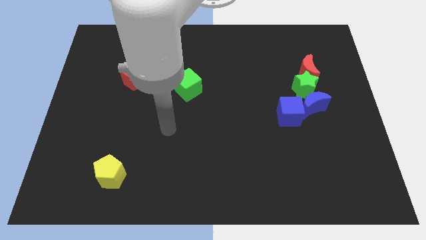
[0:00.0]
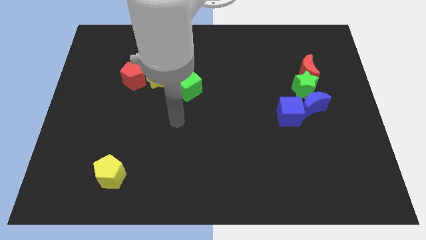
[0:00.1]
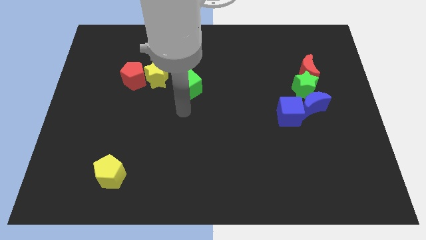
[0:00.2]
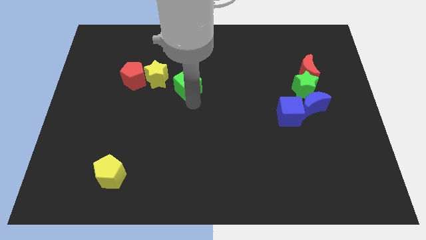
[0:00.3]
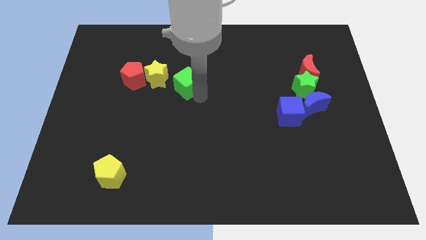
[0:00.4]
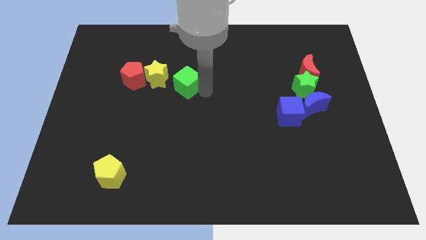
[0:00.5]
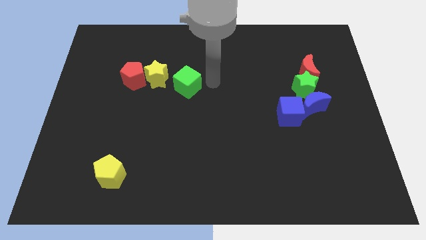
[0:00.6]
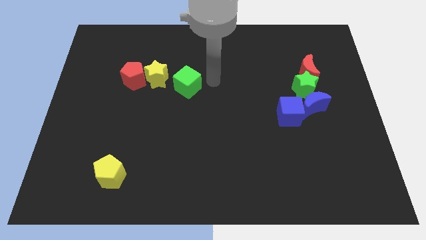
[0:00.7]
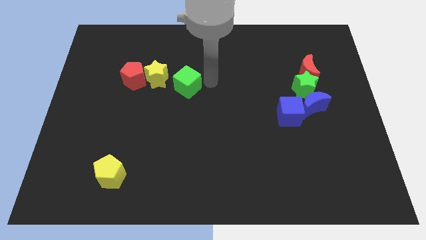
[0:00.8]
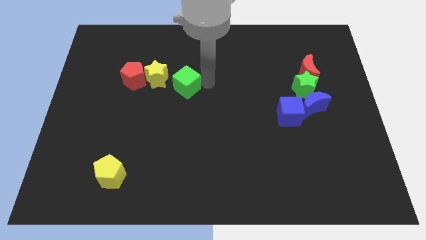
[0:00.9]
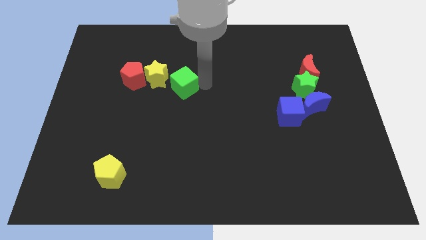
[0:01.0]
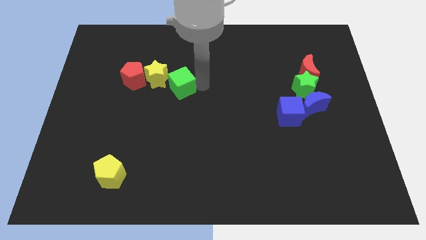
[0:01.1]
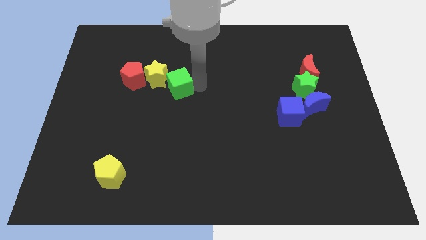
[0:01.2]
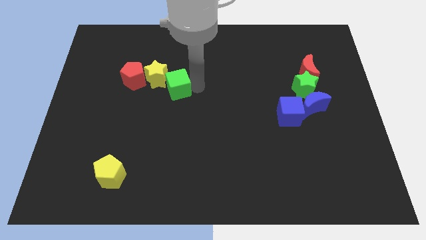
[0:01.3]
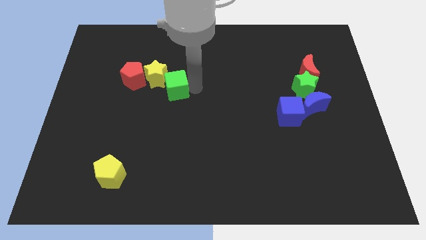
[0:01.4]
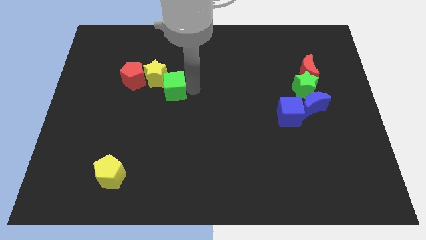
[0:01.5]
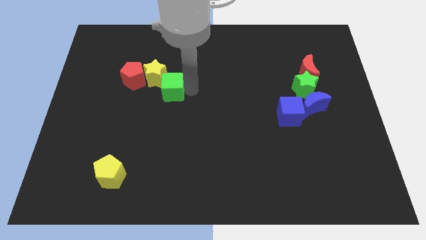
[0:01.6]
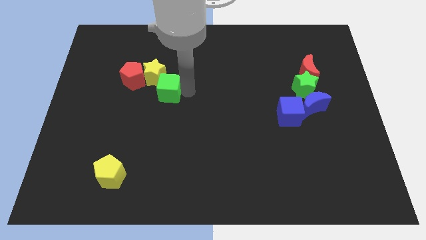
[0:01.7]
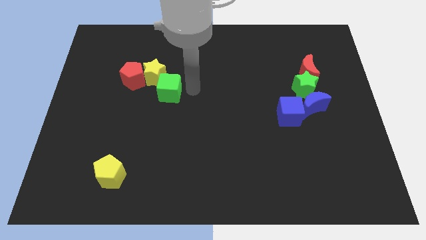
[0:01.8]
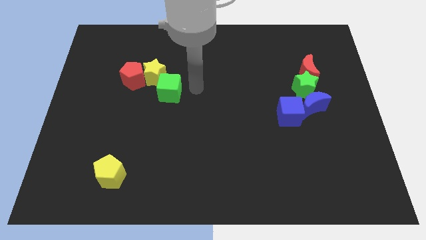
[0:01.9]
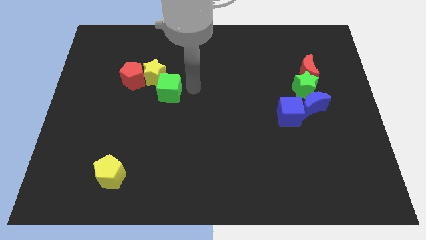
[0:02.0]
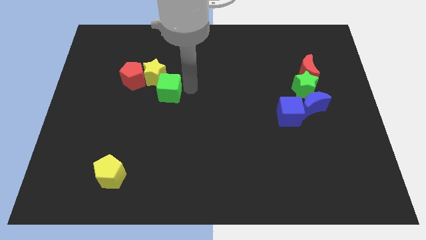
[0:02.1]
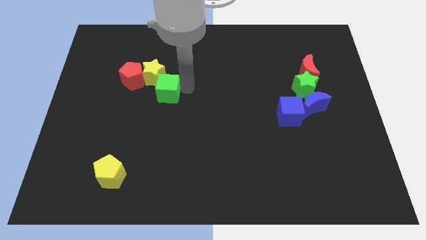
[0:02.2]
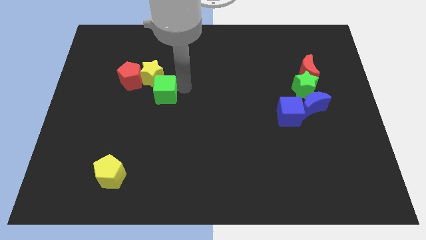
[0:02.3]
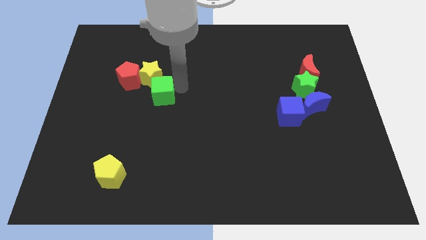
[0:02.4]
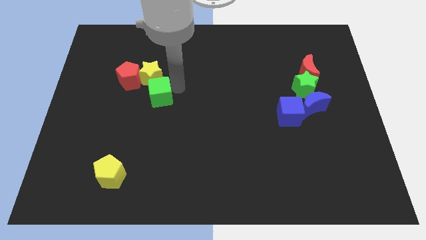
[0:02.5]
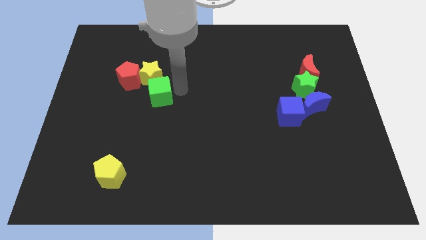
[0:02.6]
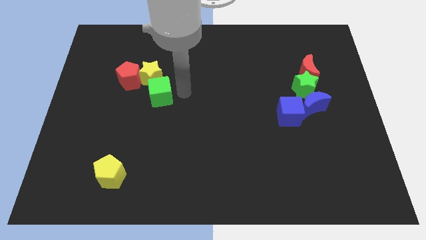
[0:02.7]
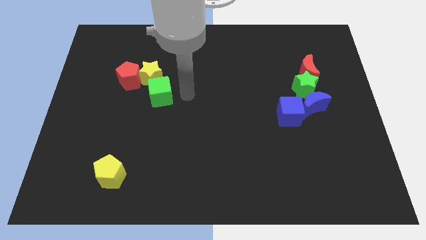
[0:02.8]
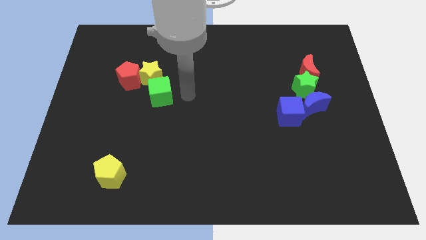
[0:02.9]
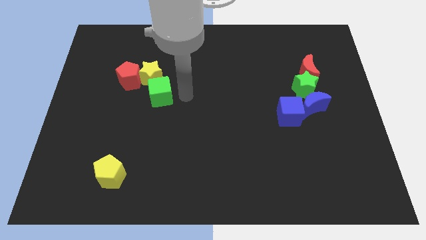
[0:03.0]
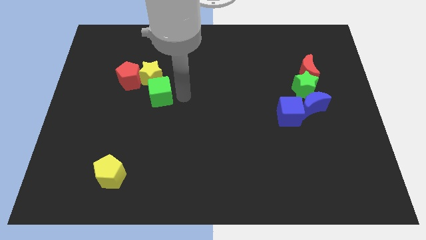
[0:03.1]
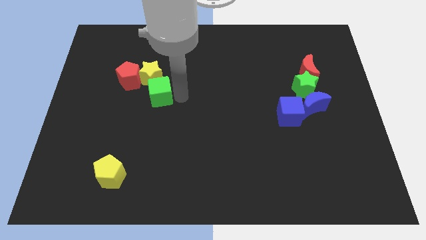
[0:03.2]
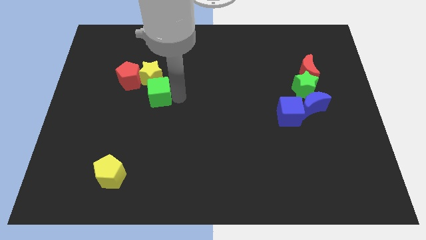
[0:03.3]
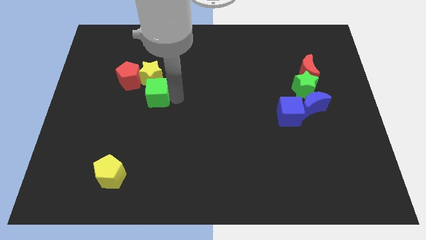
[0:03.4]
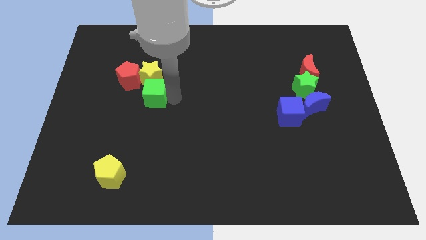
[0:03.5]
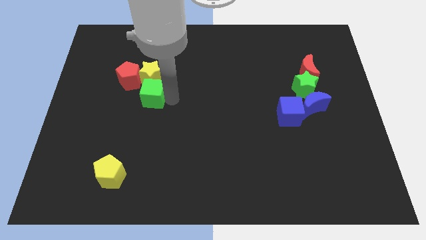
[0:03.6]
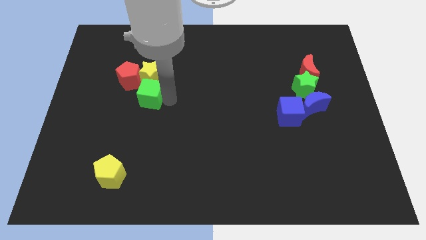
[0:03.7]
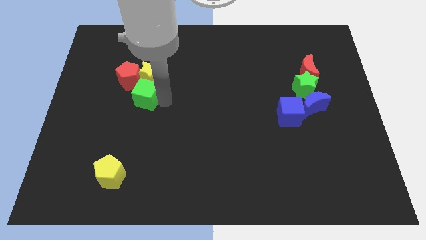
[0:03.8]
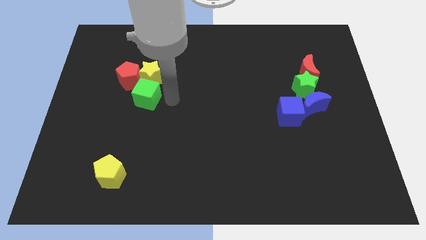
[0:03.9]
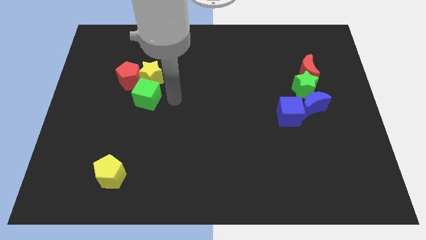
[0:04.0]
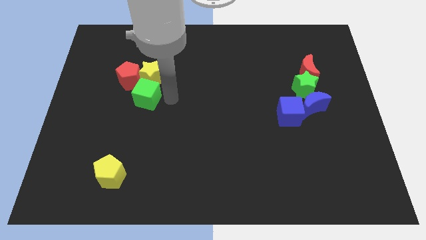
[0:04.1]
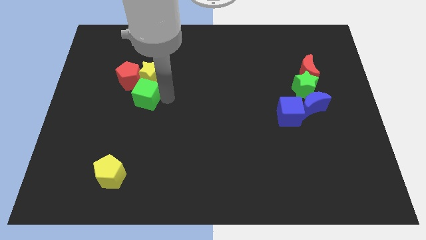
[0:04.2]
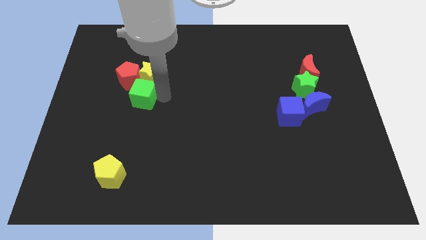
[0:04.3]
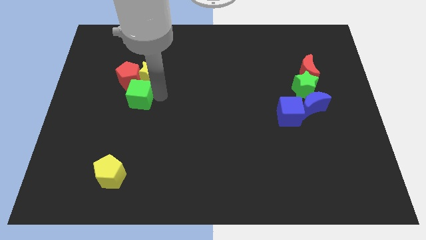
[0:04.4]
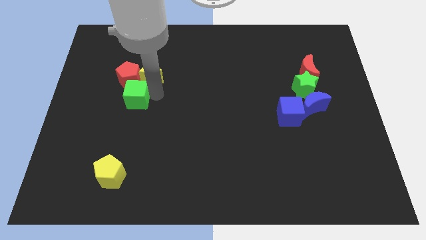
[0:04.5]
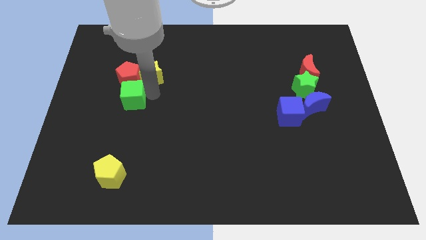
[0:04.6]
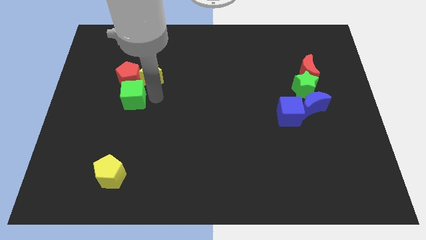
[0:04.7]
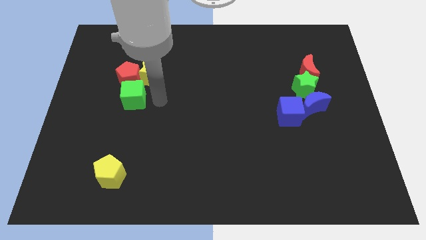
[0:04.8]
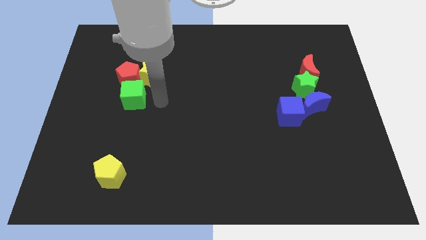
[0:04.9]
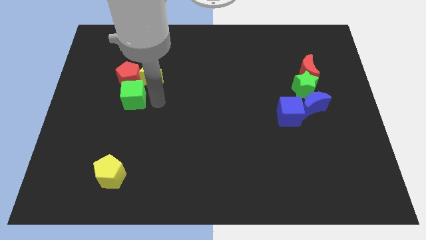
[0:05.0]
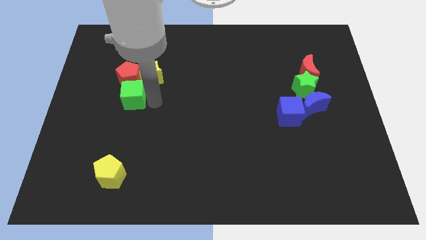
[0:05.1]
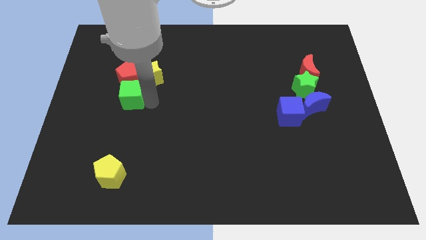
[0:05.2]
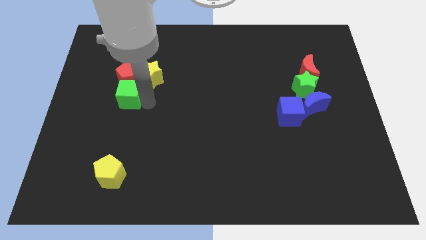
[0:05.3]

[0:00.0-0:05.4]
put the green cube to the bottom left side of the red pentagon

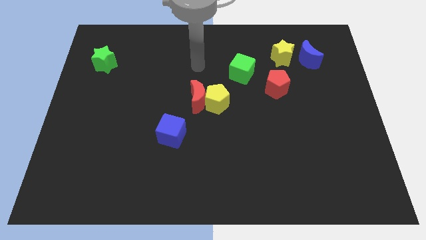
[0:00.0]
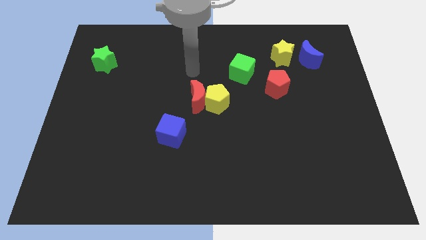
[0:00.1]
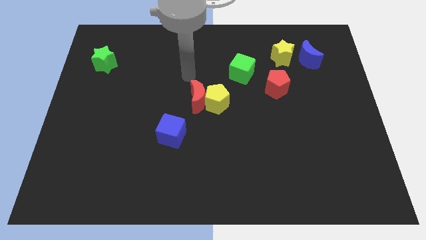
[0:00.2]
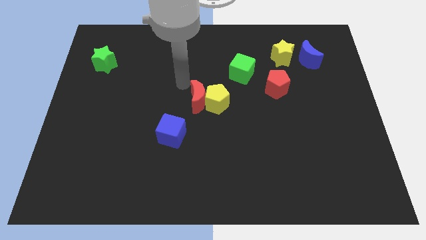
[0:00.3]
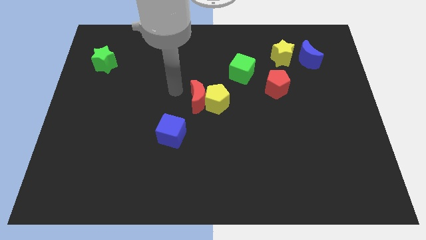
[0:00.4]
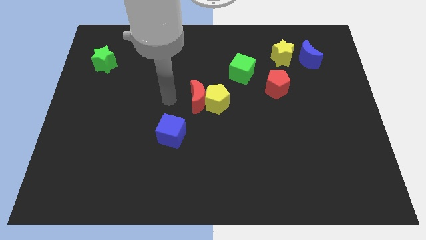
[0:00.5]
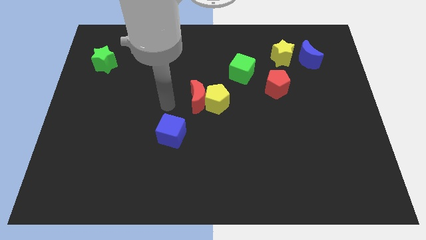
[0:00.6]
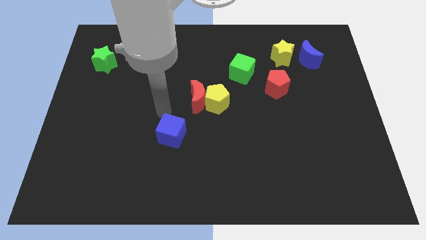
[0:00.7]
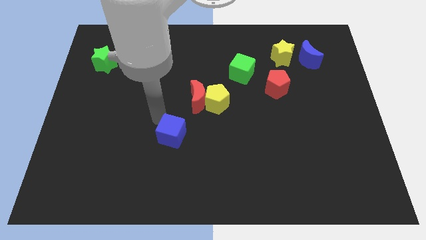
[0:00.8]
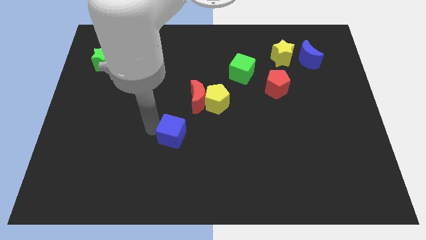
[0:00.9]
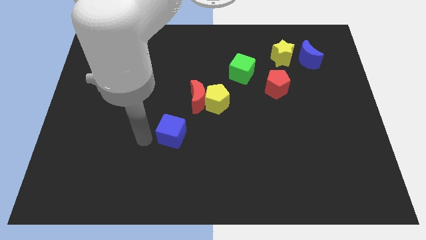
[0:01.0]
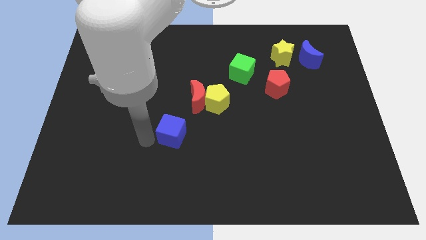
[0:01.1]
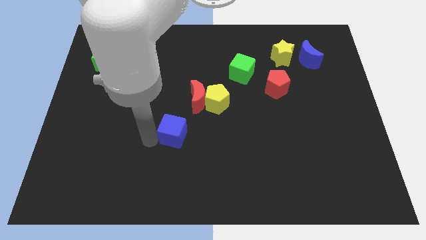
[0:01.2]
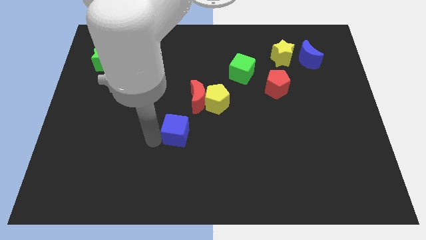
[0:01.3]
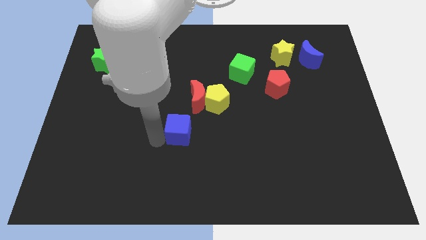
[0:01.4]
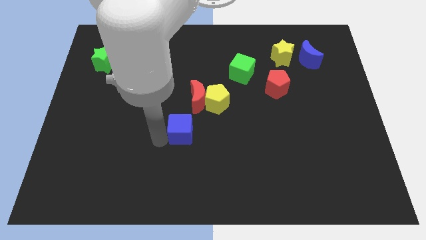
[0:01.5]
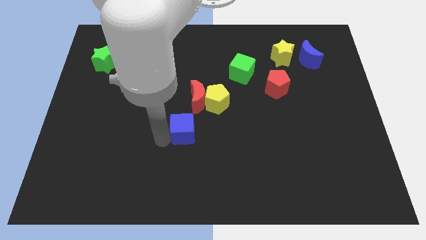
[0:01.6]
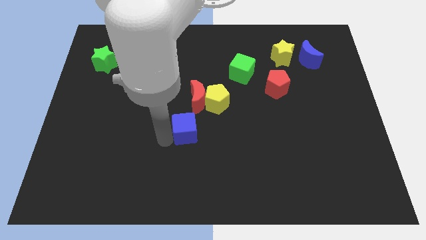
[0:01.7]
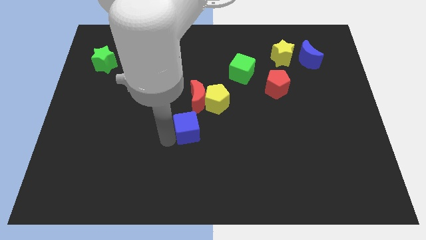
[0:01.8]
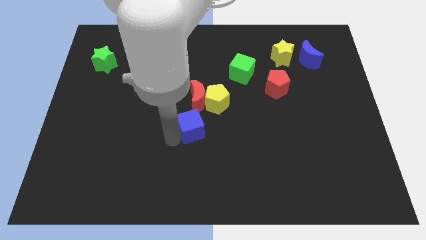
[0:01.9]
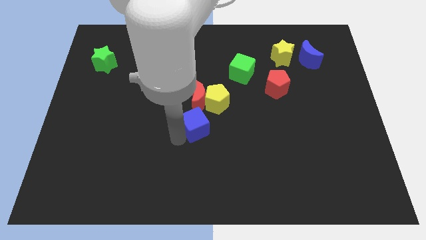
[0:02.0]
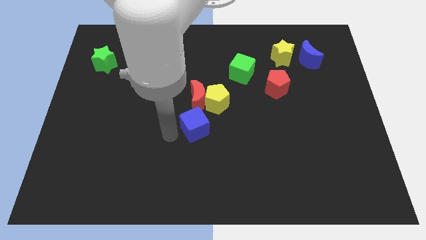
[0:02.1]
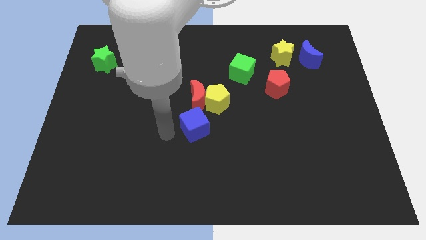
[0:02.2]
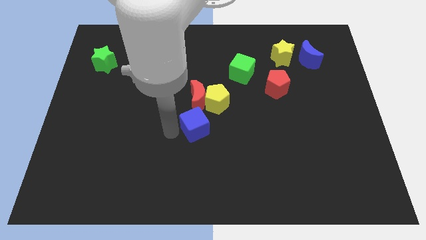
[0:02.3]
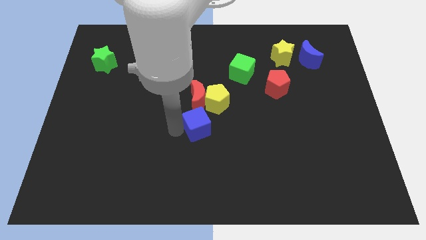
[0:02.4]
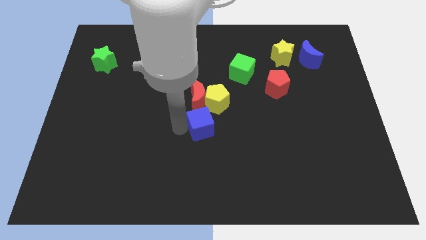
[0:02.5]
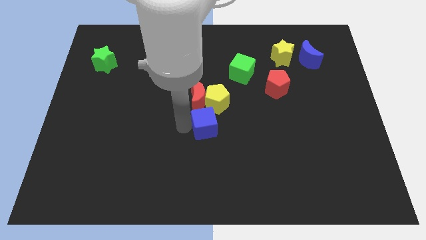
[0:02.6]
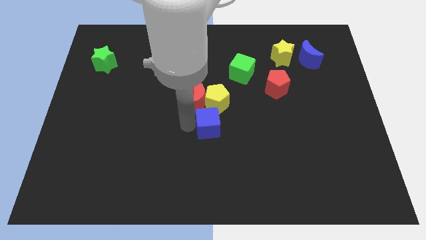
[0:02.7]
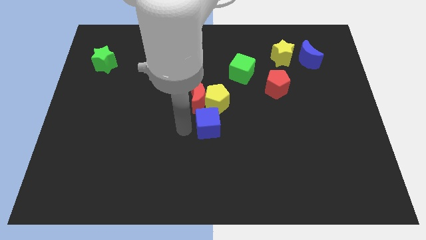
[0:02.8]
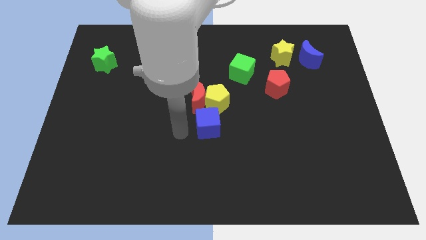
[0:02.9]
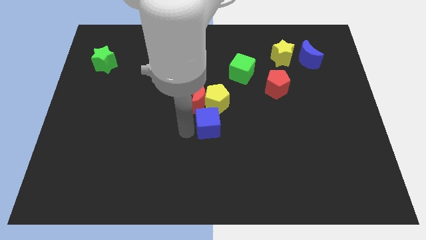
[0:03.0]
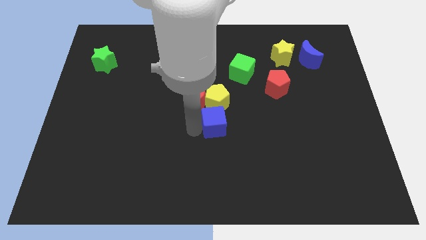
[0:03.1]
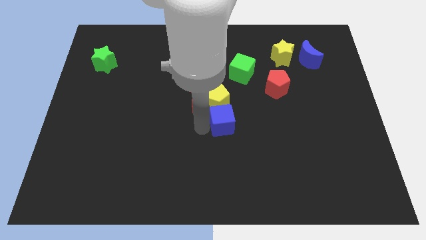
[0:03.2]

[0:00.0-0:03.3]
put the blue cube to the bottom right side of the yellow pentagon
